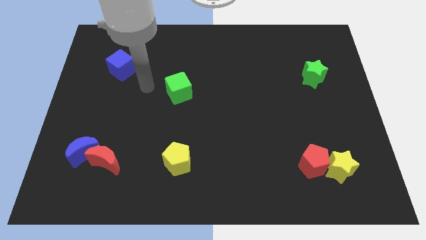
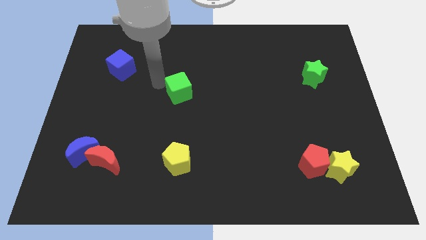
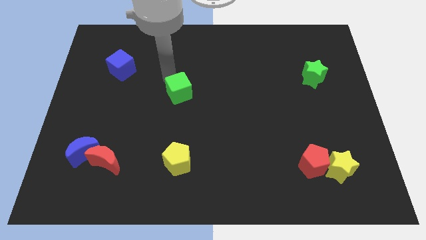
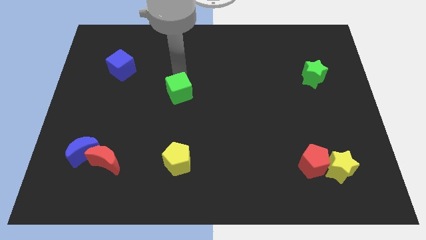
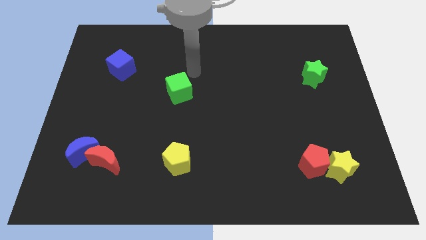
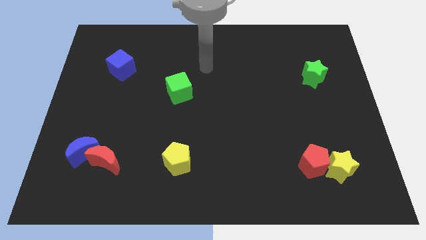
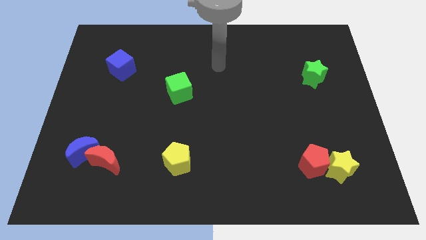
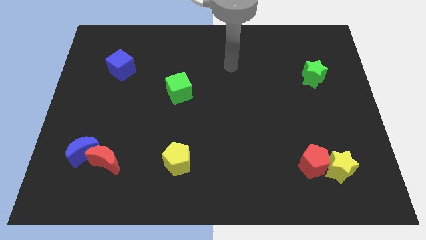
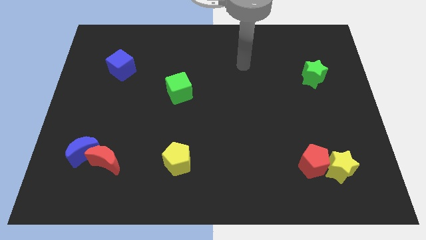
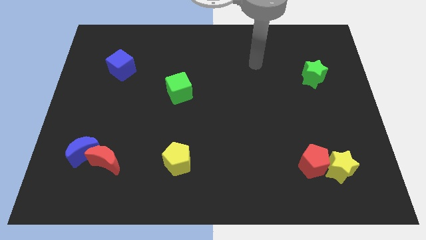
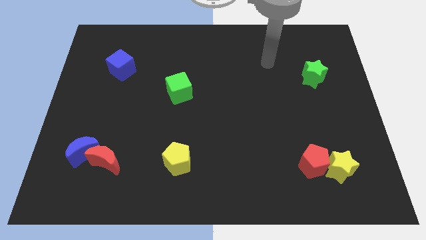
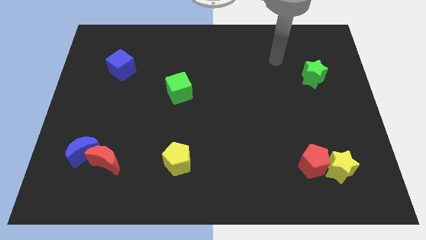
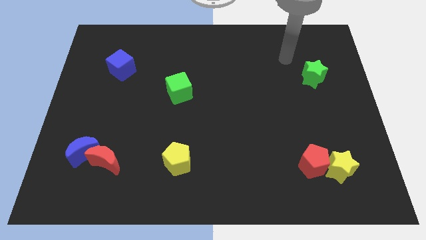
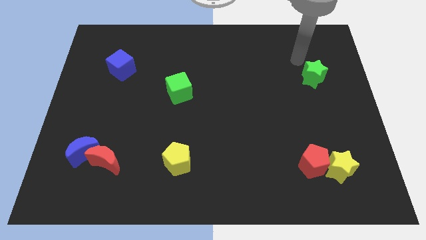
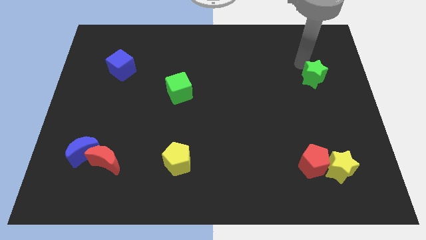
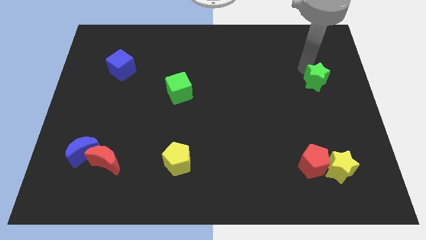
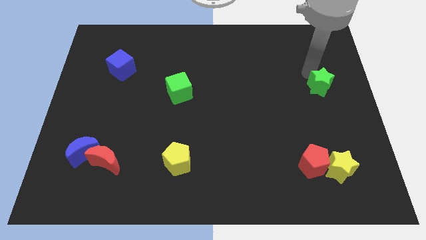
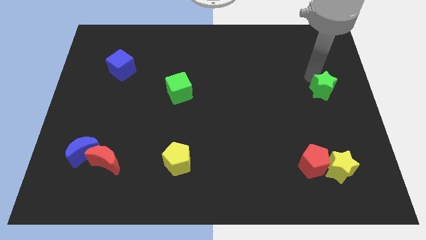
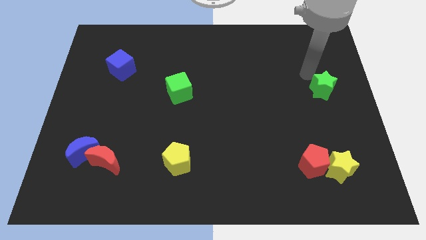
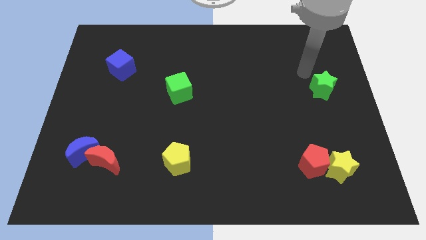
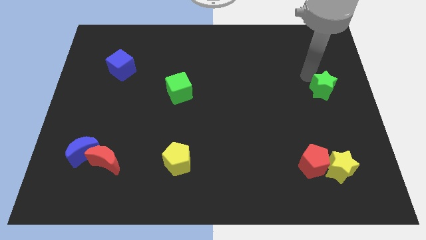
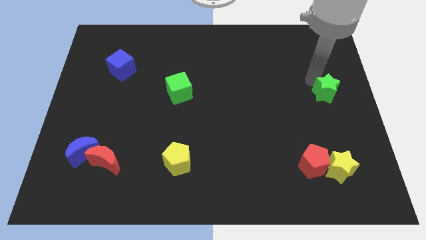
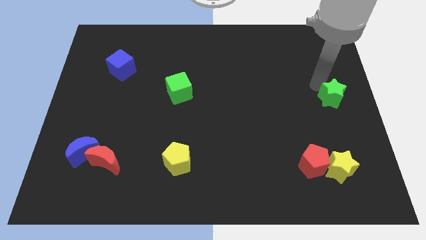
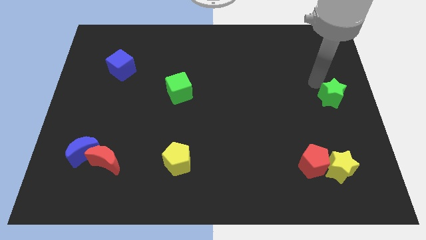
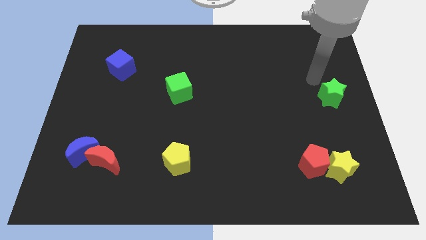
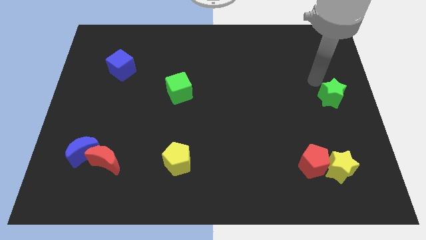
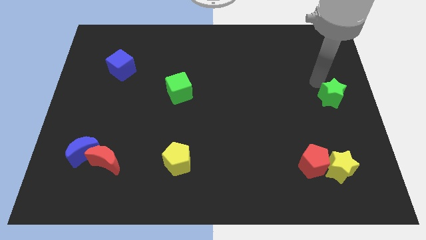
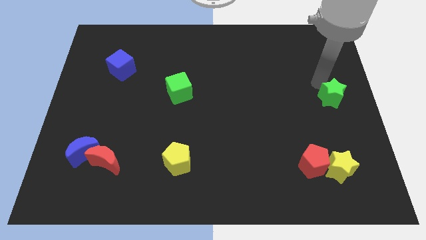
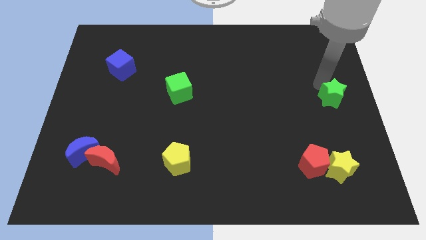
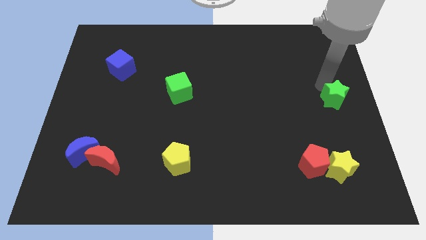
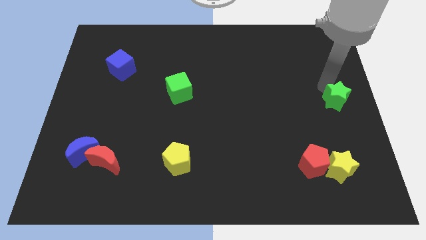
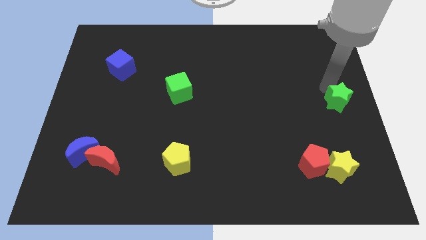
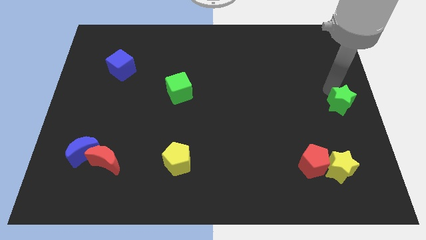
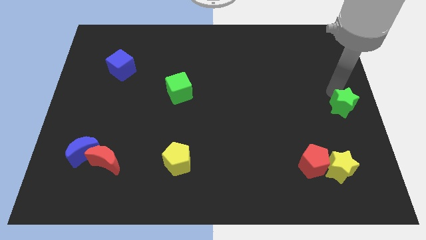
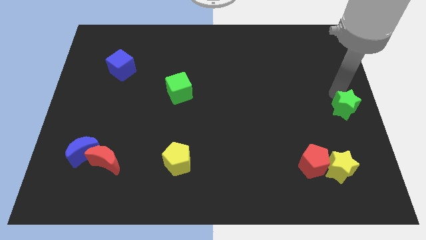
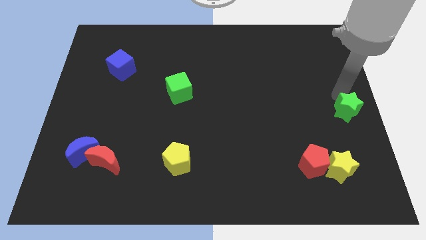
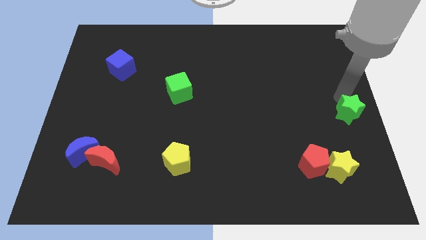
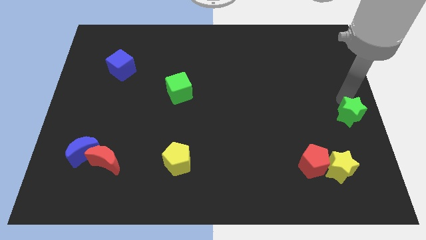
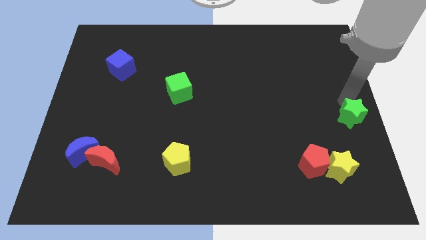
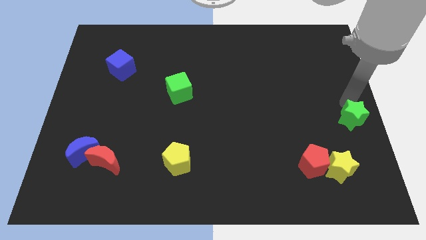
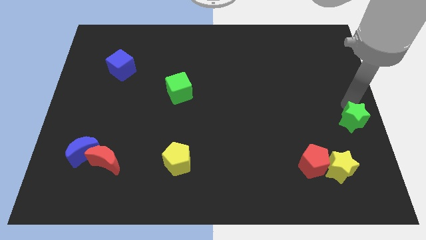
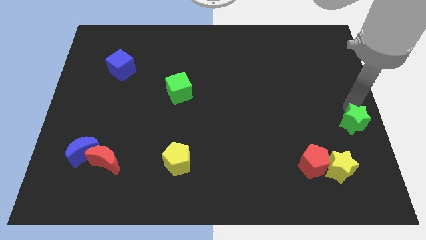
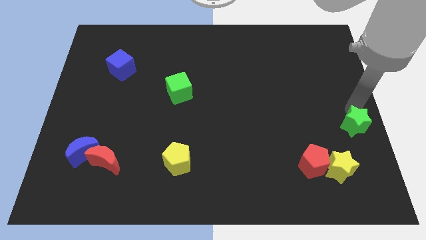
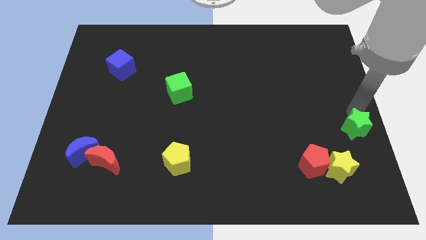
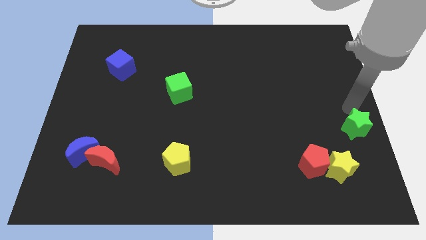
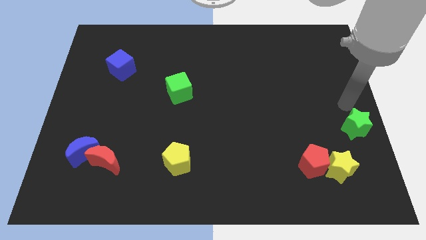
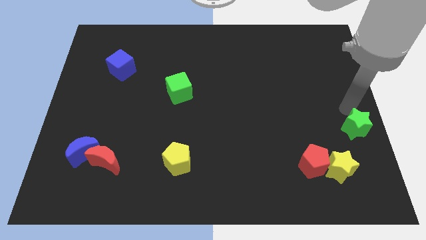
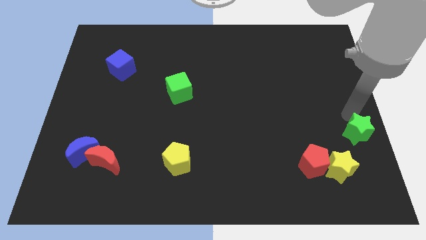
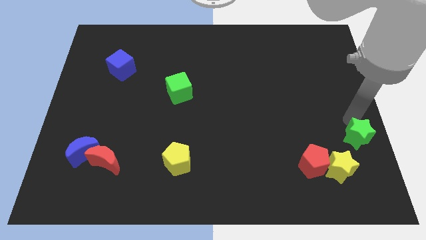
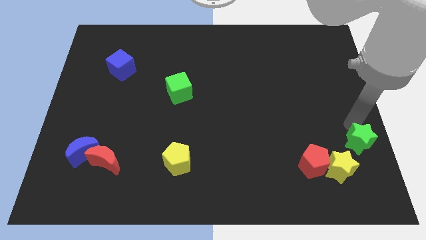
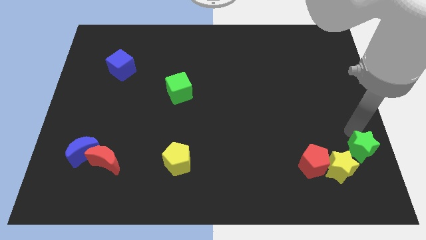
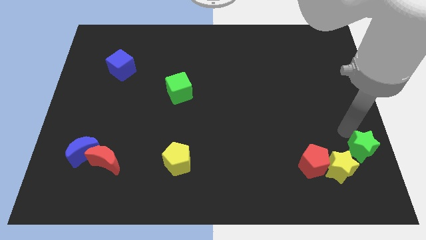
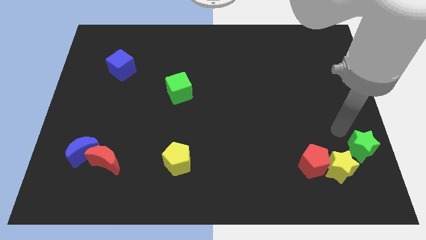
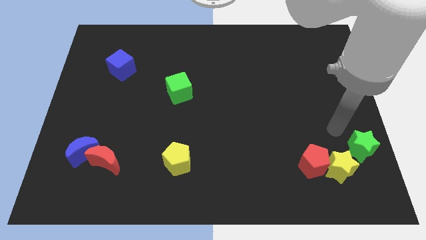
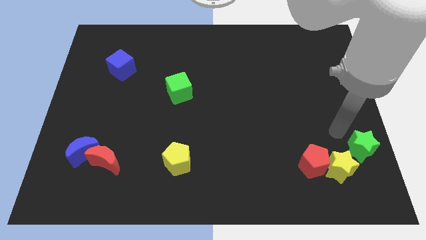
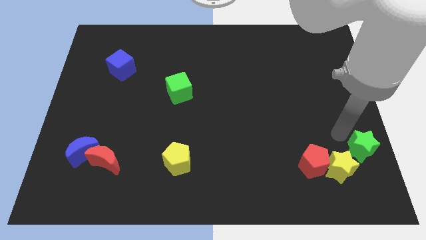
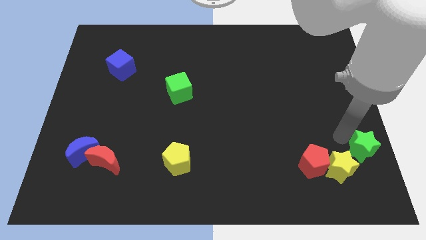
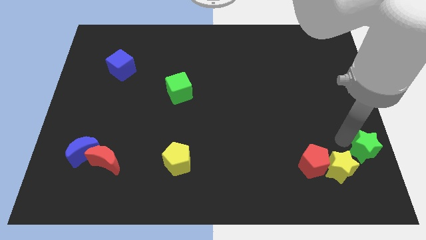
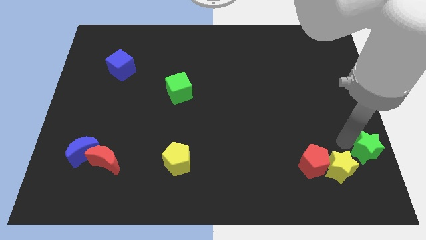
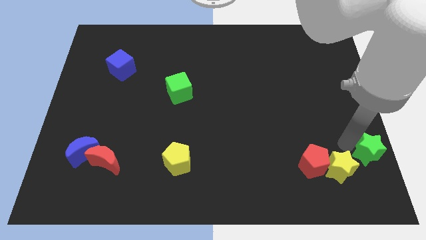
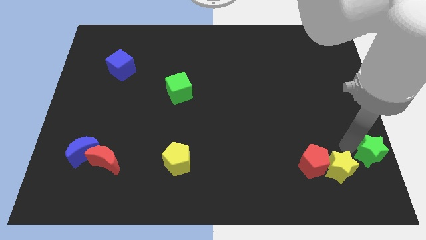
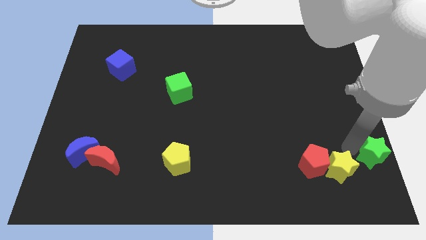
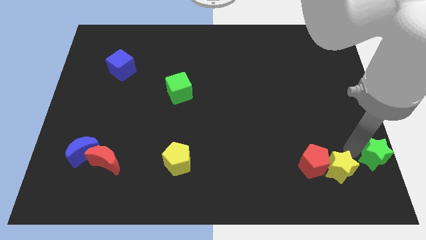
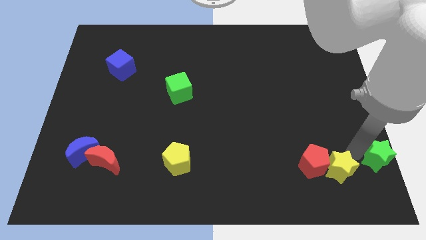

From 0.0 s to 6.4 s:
slide the green star to the bottom right of the board
